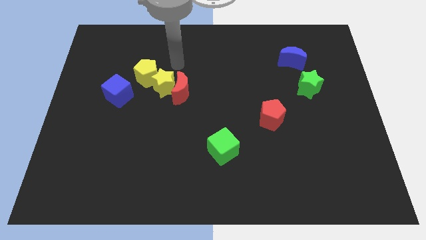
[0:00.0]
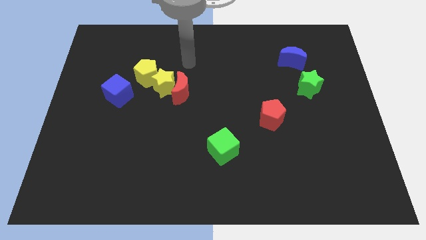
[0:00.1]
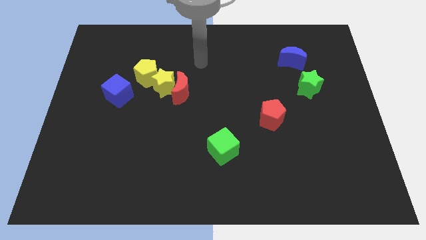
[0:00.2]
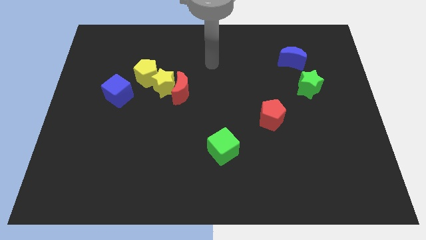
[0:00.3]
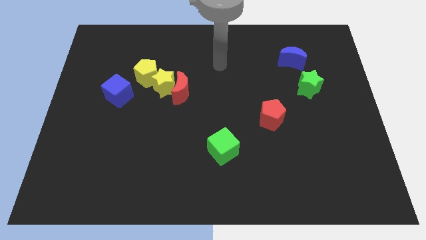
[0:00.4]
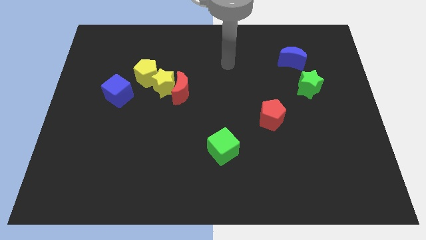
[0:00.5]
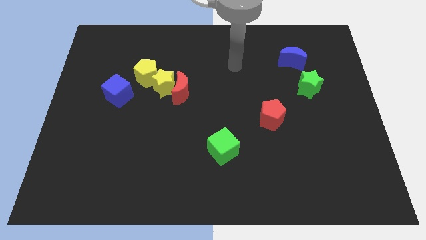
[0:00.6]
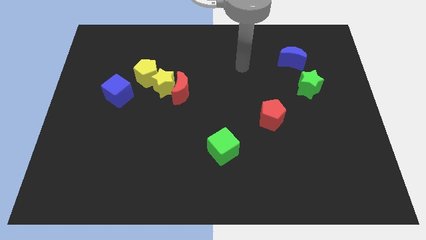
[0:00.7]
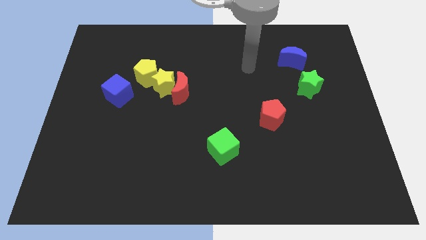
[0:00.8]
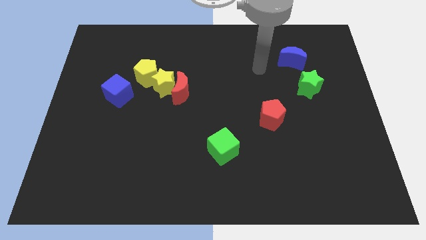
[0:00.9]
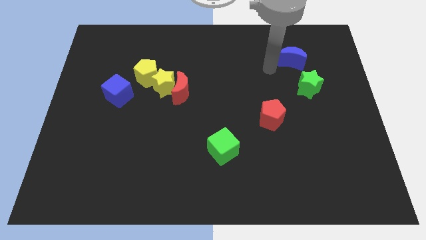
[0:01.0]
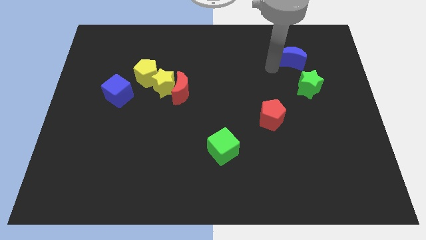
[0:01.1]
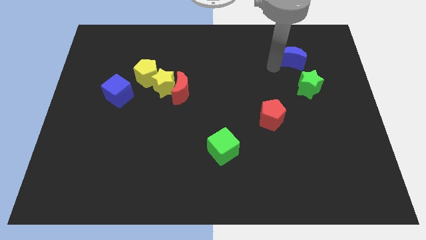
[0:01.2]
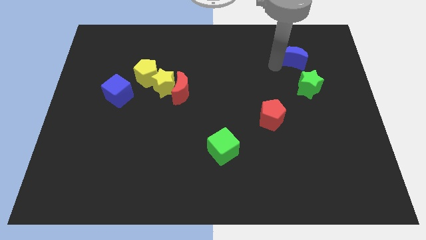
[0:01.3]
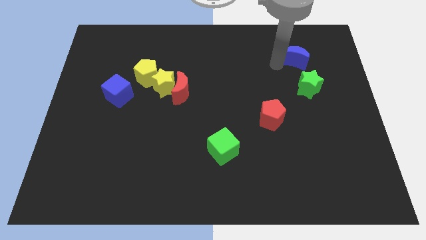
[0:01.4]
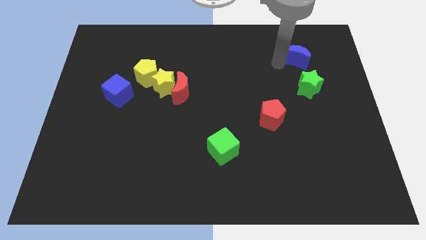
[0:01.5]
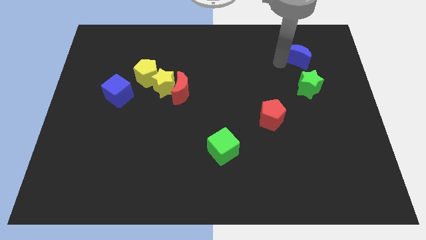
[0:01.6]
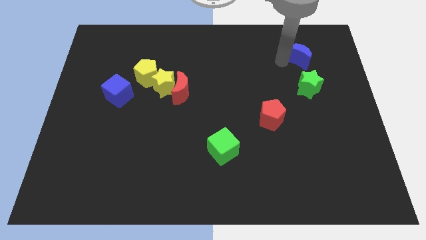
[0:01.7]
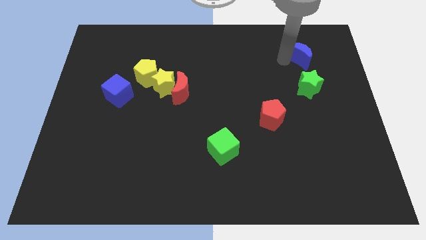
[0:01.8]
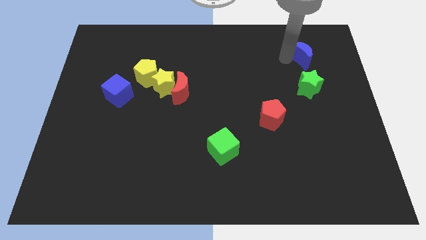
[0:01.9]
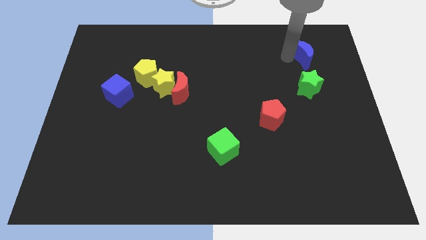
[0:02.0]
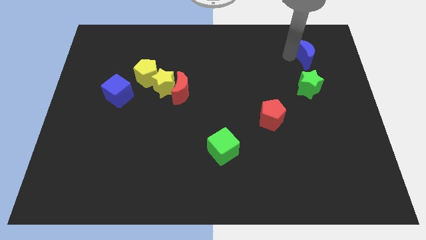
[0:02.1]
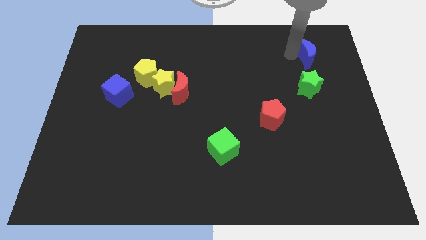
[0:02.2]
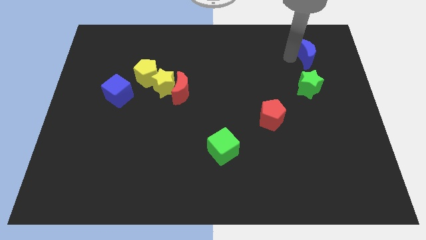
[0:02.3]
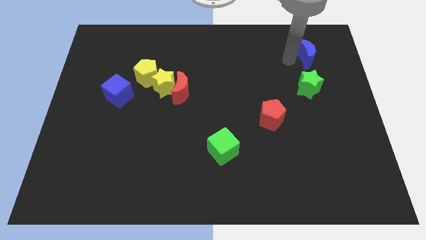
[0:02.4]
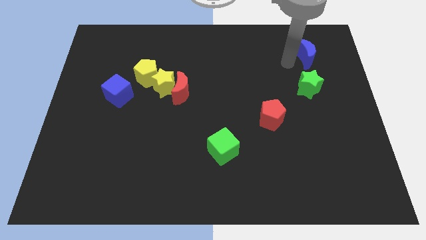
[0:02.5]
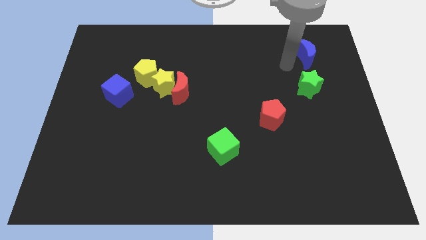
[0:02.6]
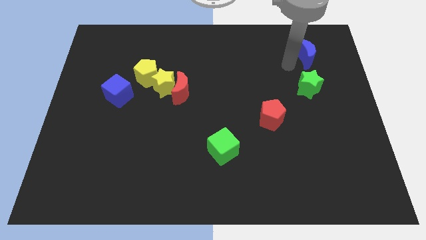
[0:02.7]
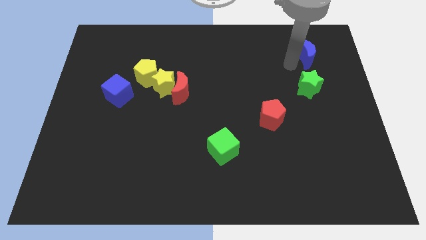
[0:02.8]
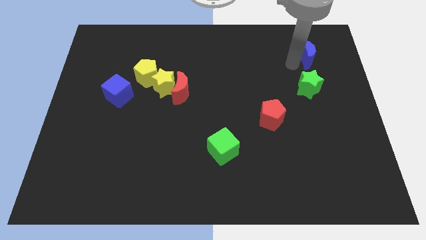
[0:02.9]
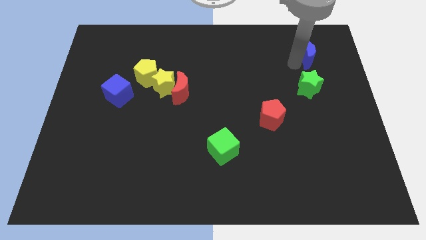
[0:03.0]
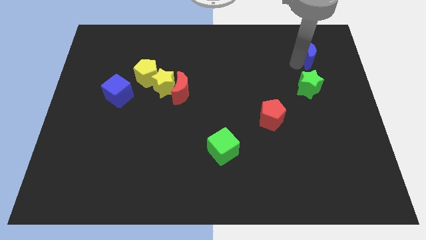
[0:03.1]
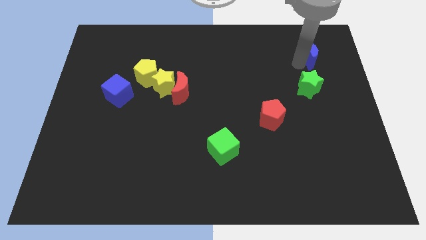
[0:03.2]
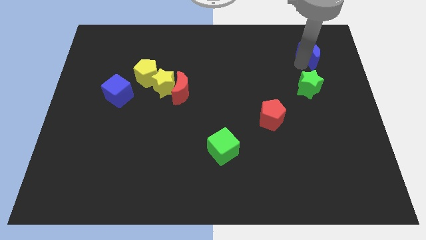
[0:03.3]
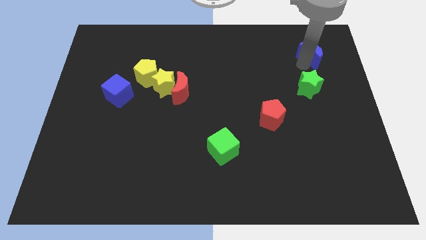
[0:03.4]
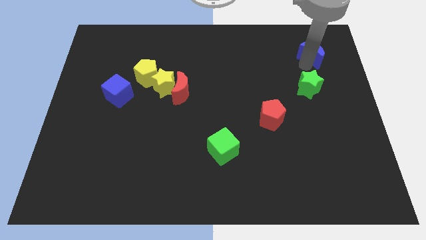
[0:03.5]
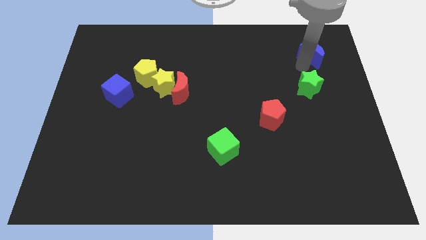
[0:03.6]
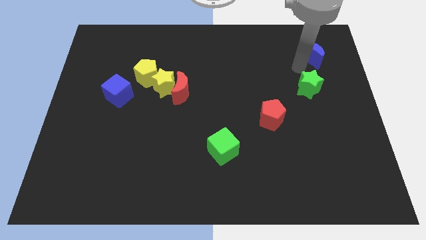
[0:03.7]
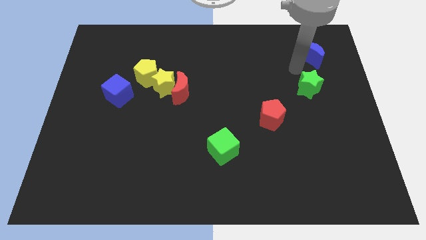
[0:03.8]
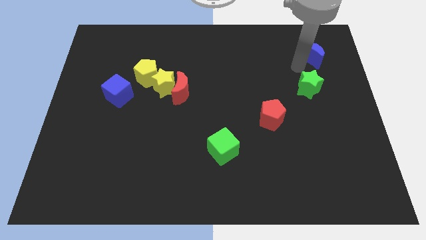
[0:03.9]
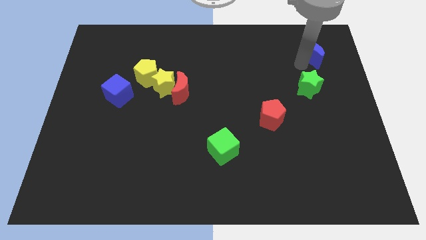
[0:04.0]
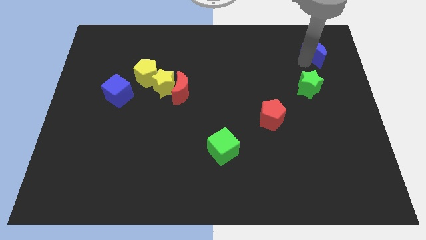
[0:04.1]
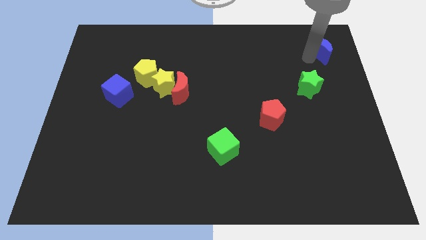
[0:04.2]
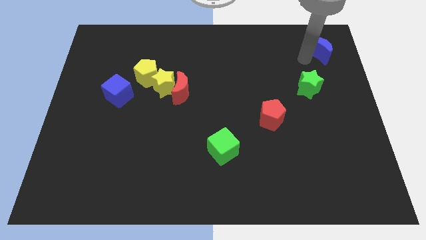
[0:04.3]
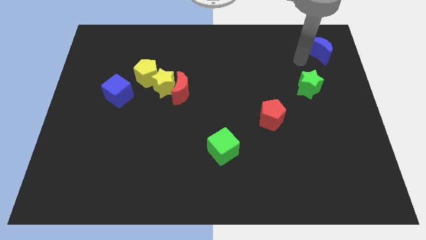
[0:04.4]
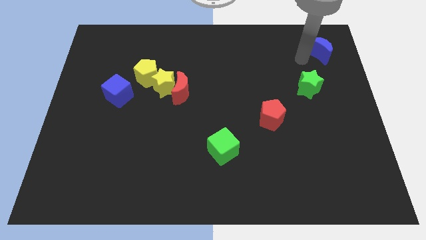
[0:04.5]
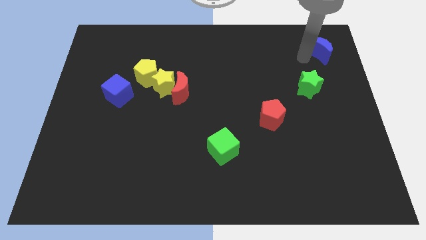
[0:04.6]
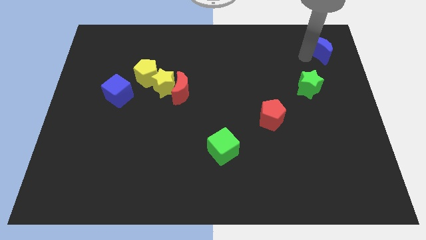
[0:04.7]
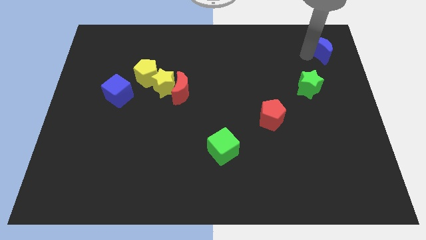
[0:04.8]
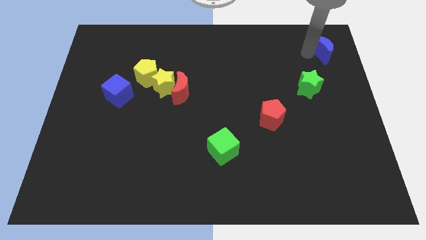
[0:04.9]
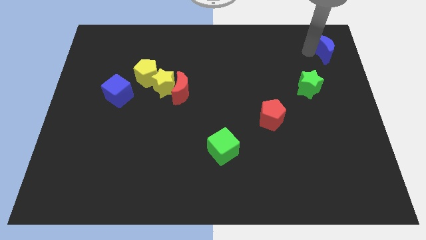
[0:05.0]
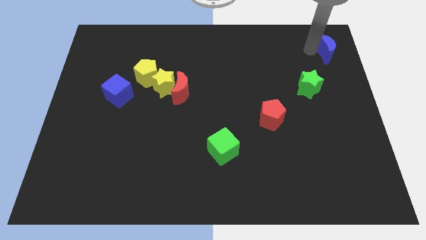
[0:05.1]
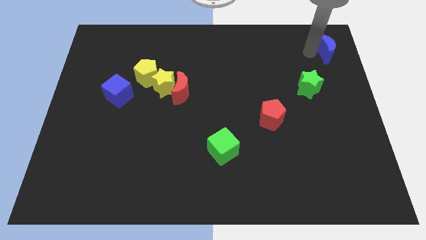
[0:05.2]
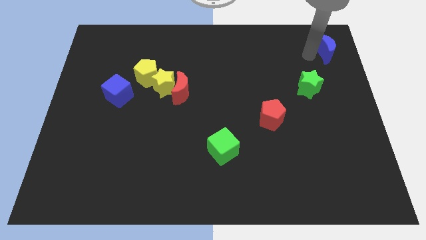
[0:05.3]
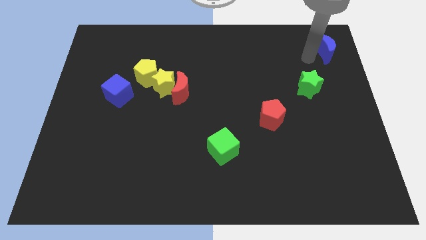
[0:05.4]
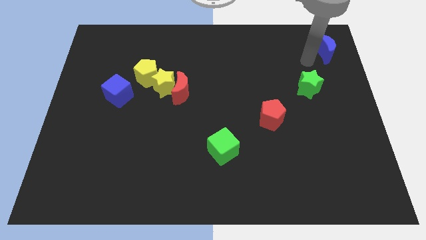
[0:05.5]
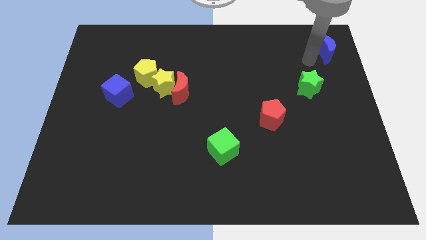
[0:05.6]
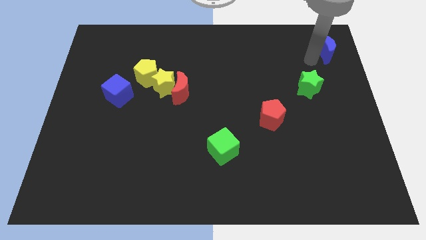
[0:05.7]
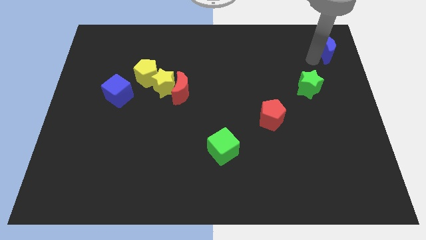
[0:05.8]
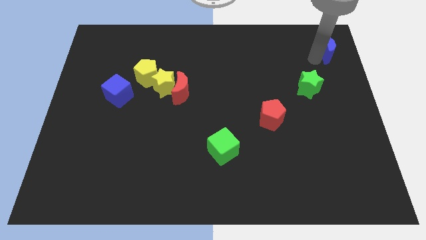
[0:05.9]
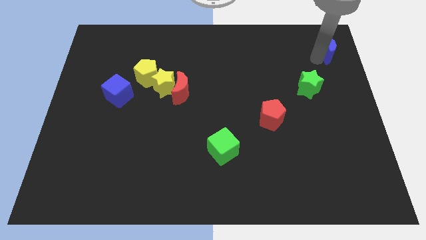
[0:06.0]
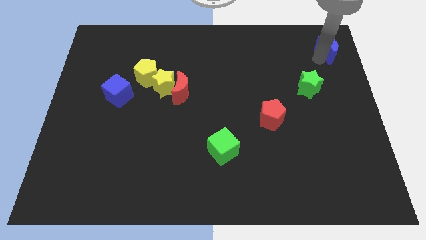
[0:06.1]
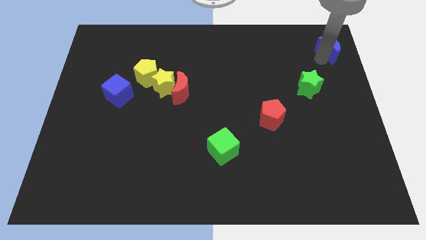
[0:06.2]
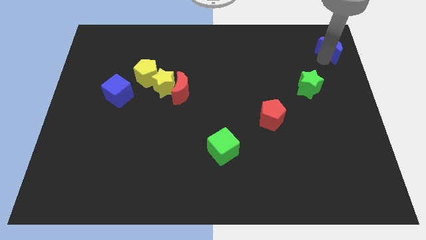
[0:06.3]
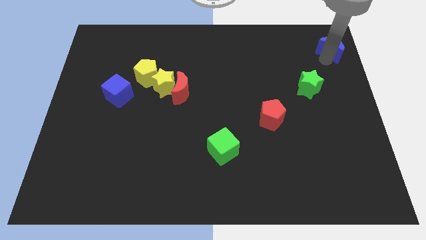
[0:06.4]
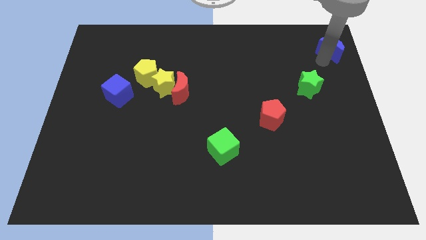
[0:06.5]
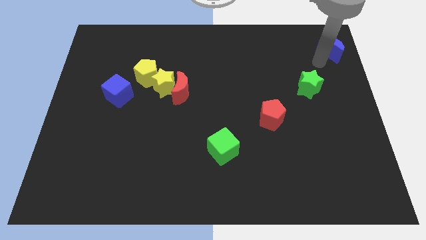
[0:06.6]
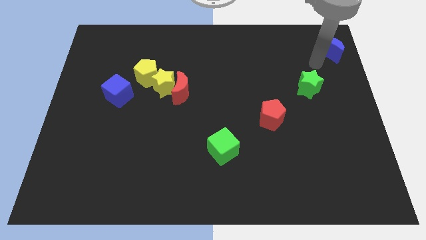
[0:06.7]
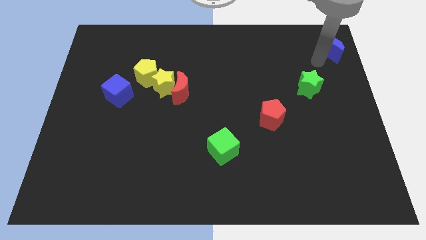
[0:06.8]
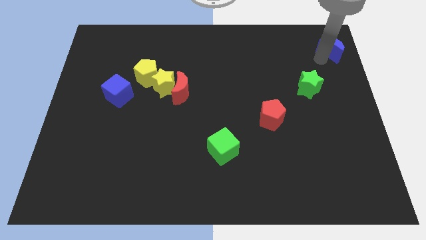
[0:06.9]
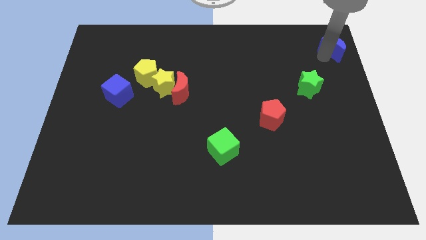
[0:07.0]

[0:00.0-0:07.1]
put the blue moon to the top right of the board
